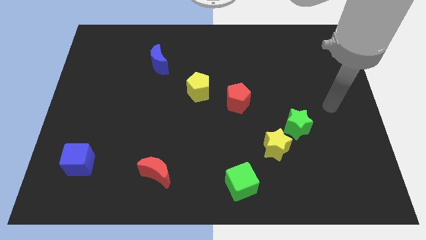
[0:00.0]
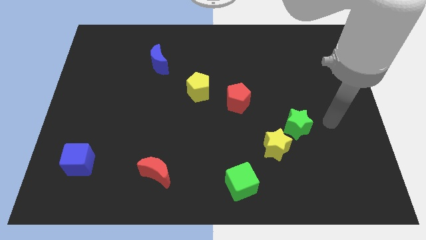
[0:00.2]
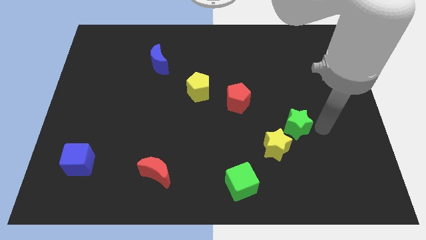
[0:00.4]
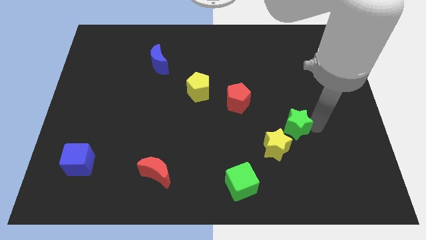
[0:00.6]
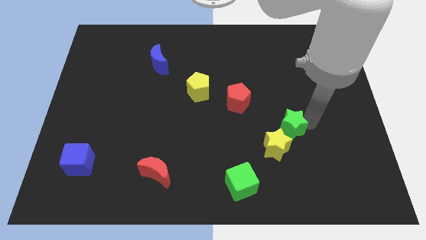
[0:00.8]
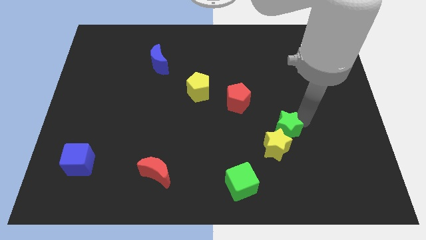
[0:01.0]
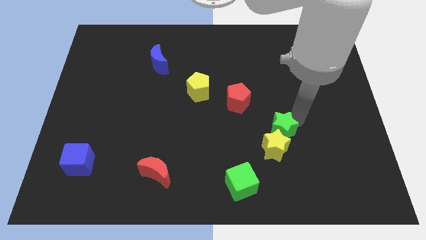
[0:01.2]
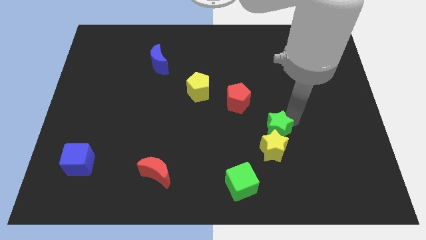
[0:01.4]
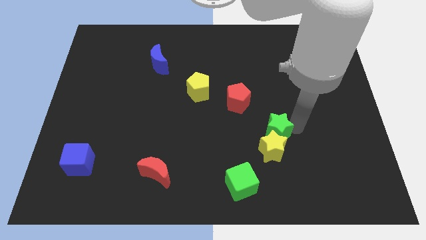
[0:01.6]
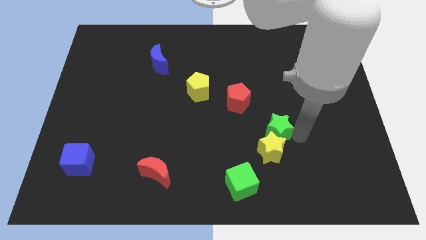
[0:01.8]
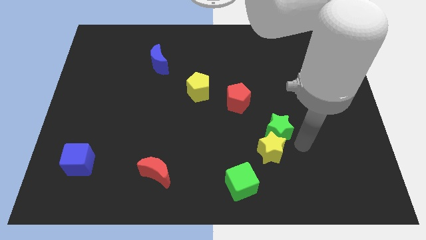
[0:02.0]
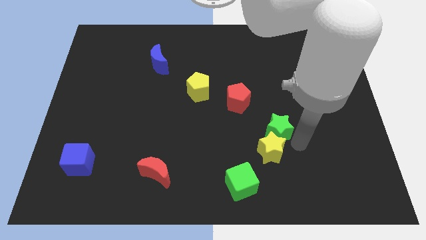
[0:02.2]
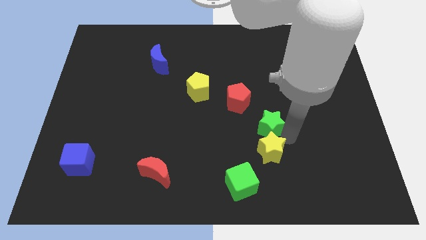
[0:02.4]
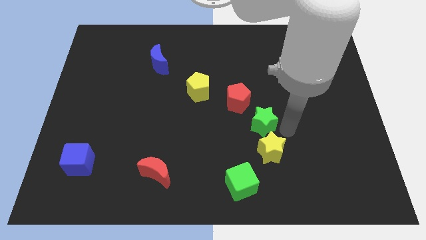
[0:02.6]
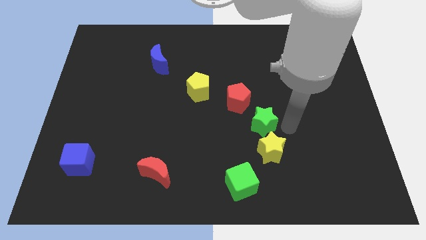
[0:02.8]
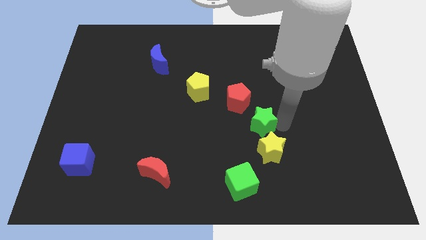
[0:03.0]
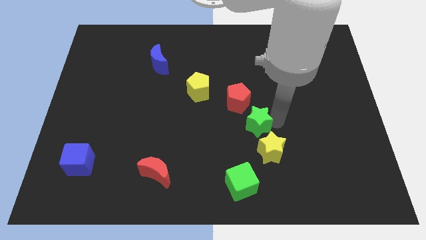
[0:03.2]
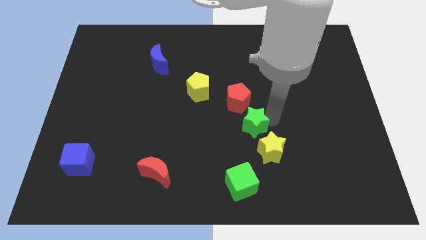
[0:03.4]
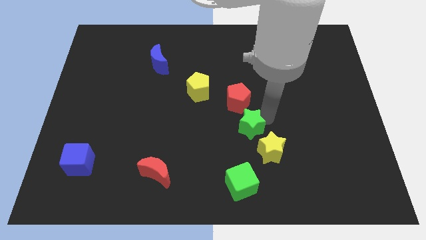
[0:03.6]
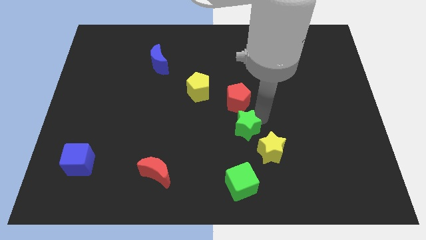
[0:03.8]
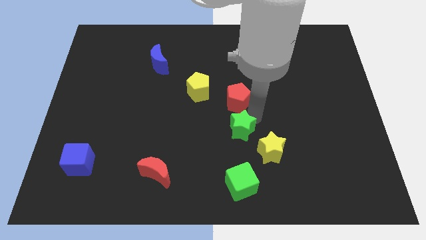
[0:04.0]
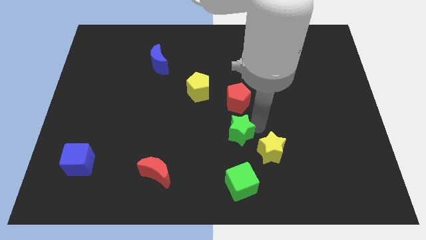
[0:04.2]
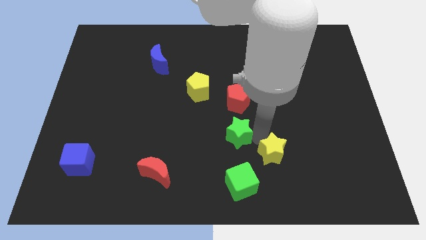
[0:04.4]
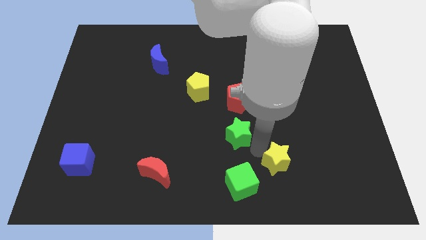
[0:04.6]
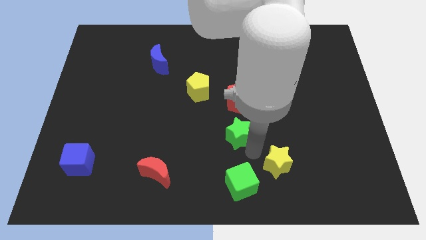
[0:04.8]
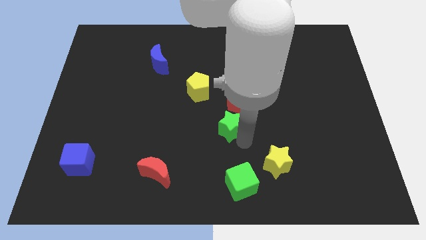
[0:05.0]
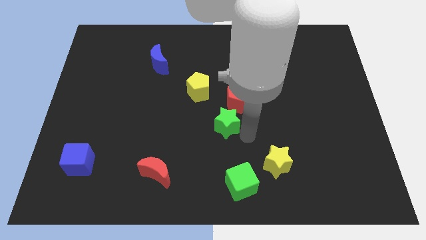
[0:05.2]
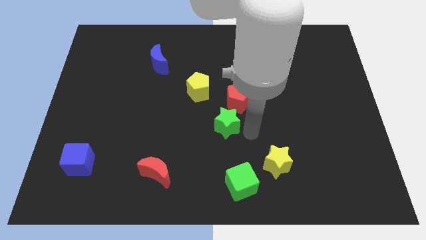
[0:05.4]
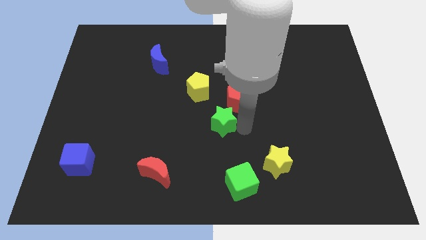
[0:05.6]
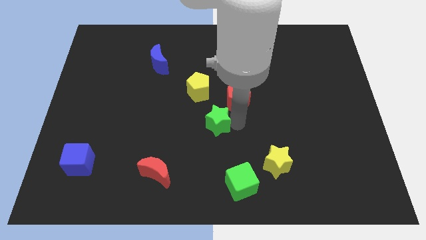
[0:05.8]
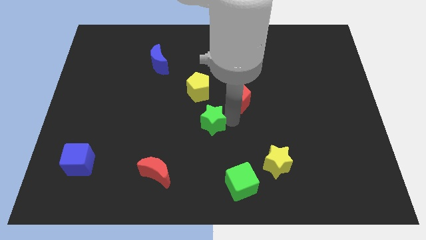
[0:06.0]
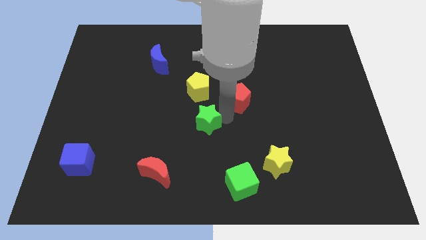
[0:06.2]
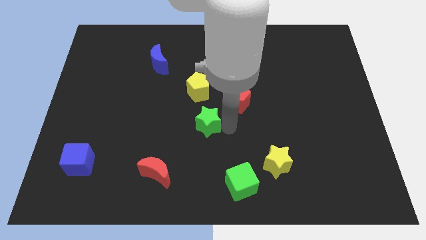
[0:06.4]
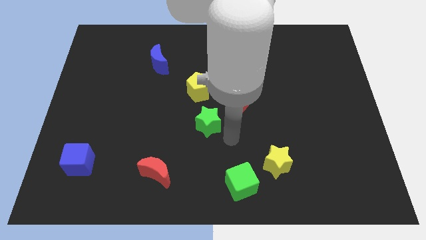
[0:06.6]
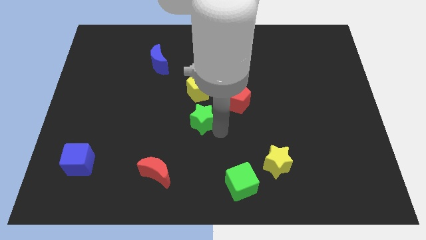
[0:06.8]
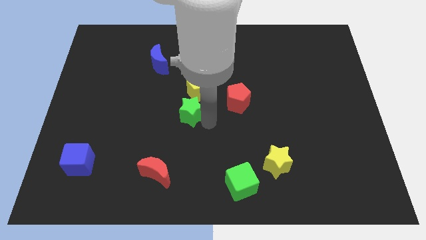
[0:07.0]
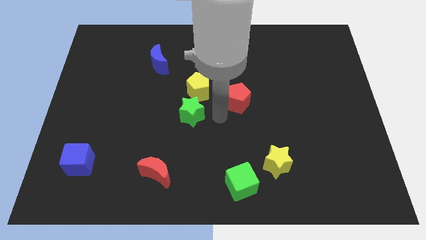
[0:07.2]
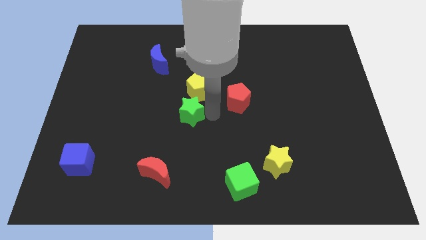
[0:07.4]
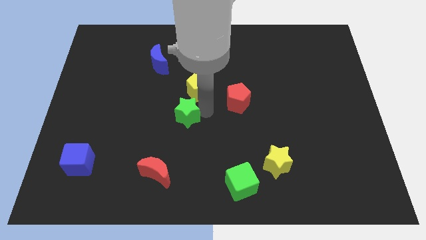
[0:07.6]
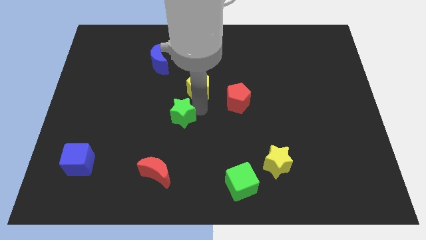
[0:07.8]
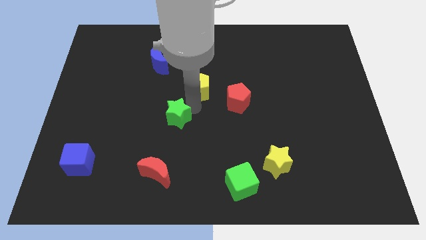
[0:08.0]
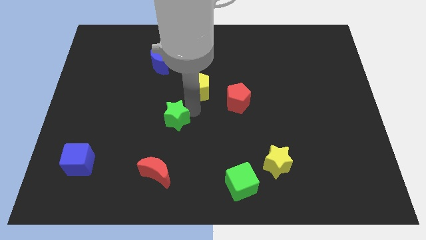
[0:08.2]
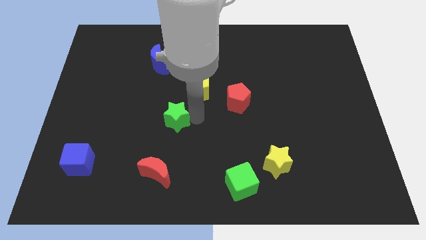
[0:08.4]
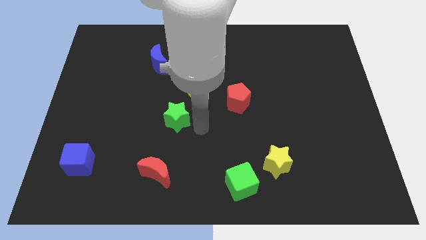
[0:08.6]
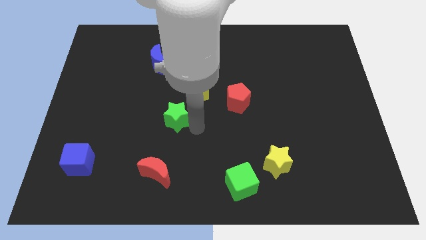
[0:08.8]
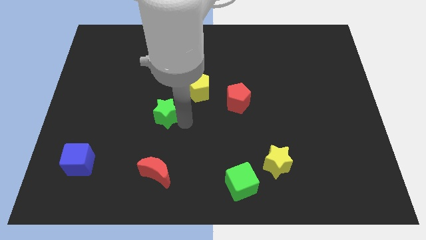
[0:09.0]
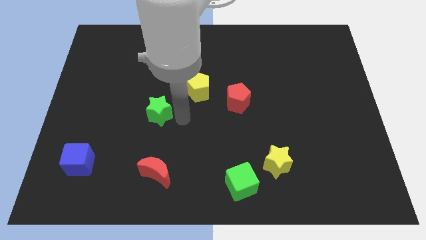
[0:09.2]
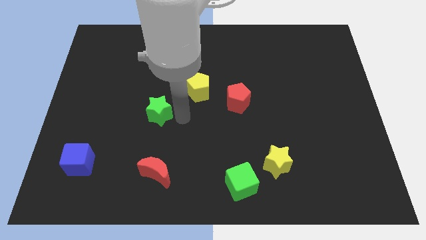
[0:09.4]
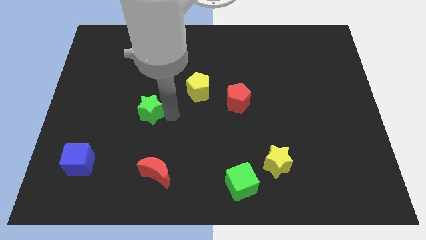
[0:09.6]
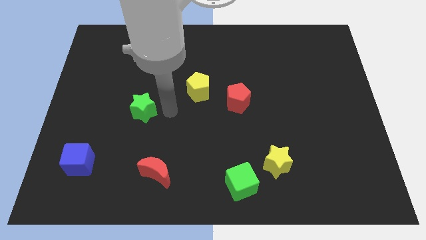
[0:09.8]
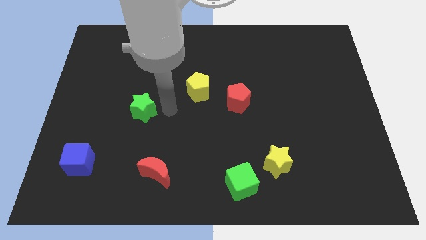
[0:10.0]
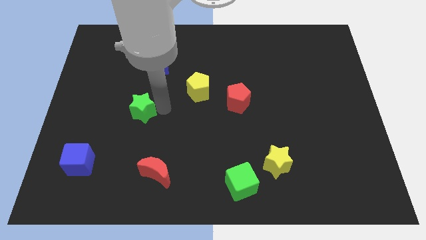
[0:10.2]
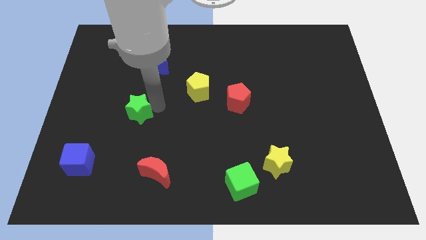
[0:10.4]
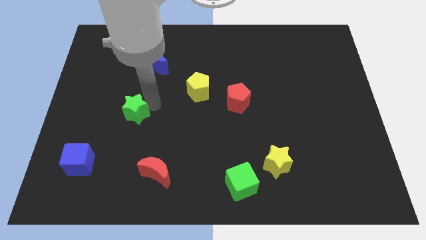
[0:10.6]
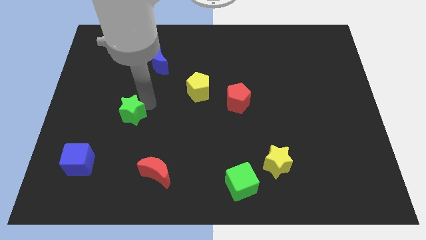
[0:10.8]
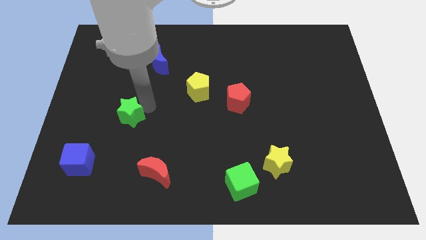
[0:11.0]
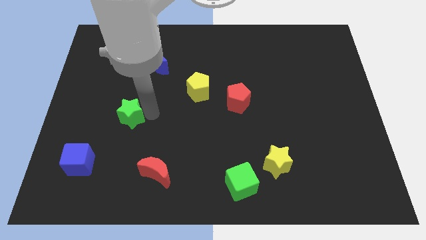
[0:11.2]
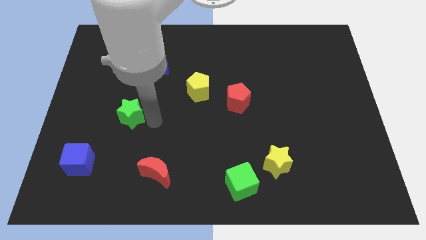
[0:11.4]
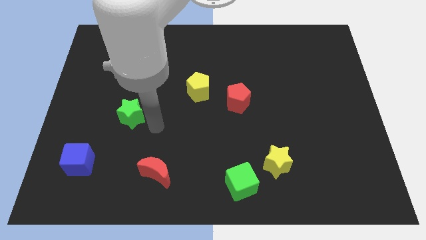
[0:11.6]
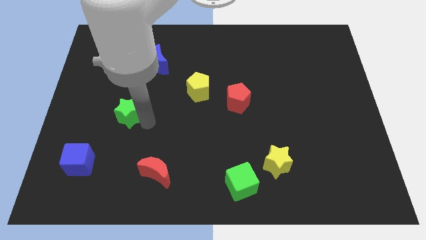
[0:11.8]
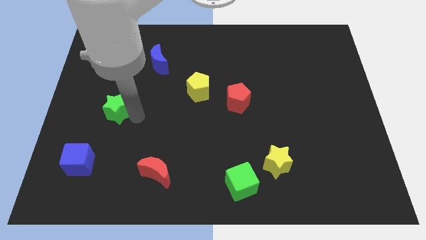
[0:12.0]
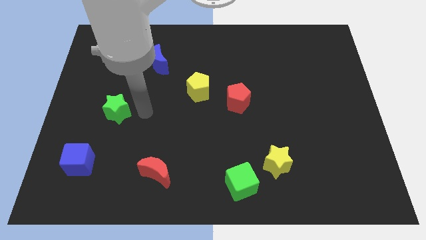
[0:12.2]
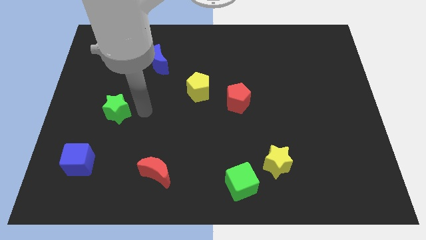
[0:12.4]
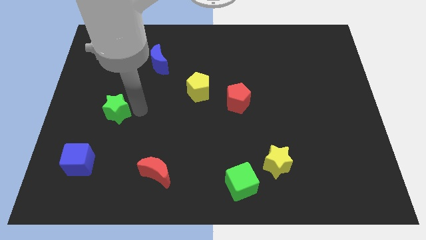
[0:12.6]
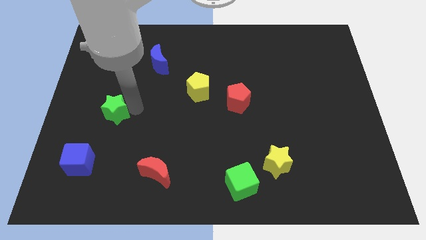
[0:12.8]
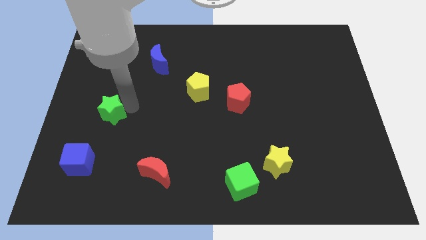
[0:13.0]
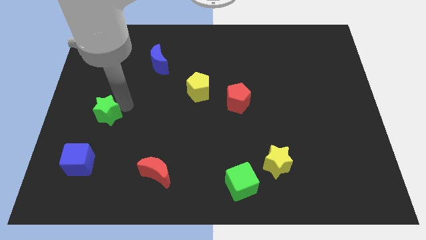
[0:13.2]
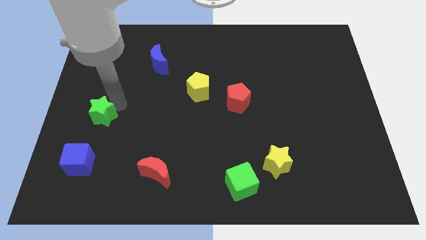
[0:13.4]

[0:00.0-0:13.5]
slide the green star to the left side of the board
